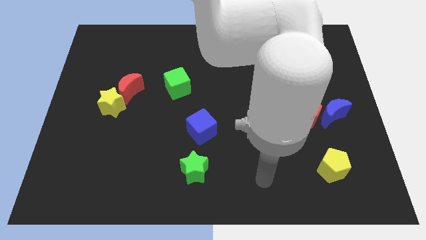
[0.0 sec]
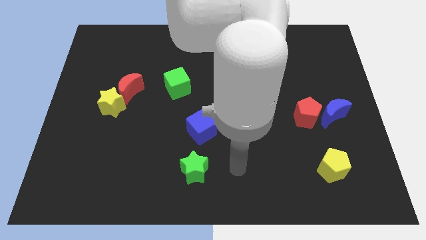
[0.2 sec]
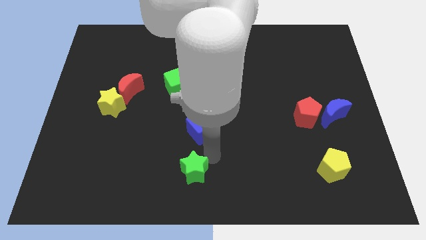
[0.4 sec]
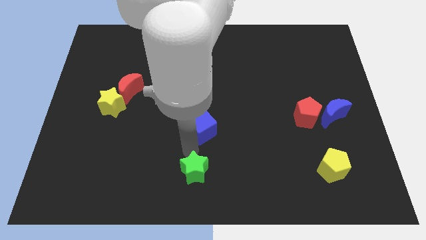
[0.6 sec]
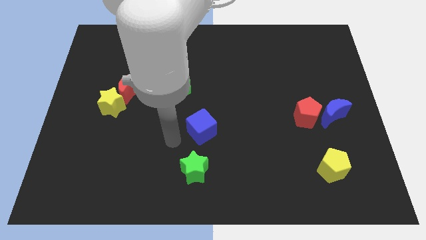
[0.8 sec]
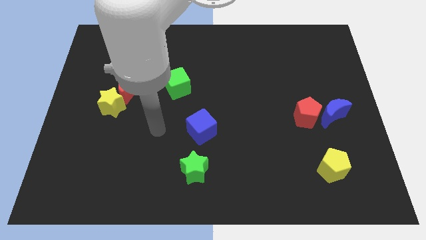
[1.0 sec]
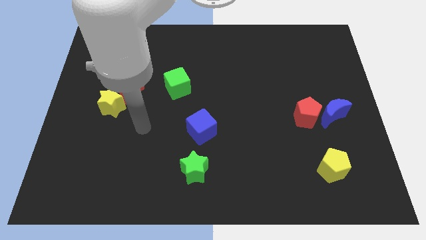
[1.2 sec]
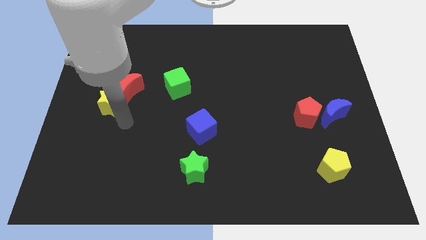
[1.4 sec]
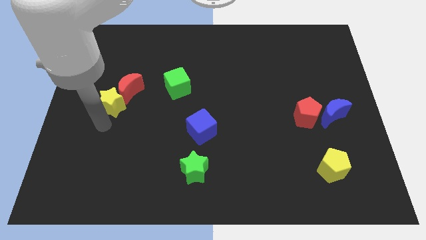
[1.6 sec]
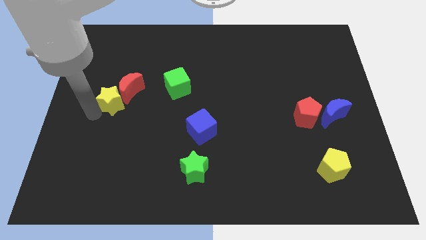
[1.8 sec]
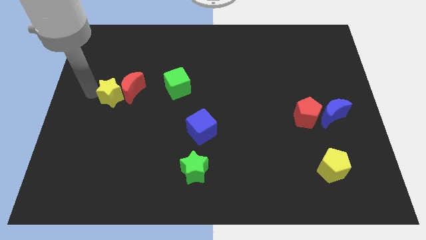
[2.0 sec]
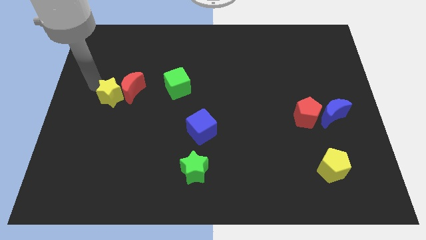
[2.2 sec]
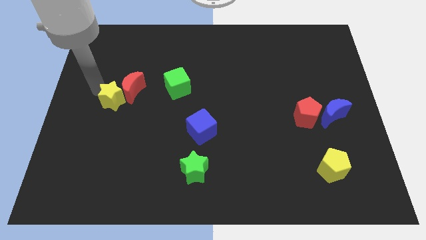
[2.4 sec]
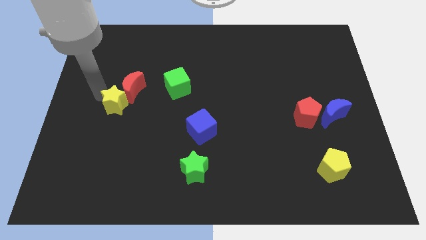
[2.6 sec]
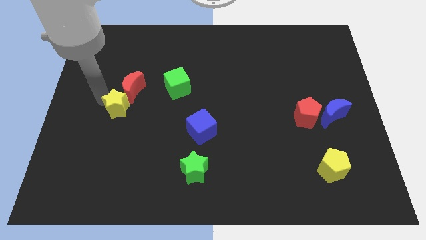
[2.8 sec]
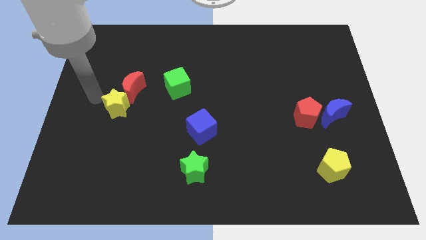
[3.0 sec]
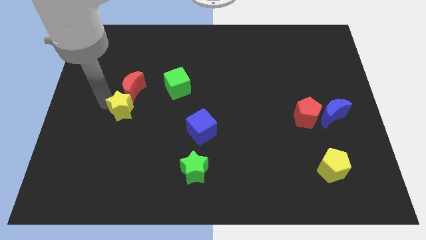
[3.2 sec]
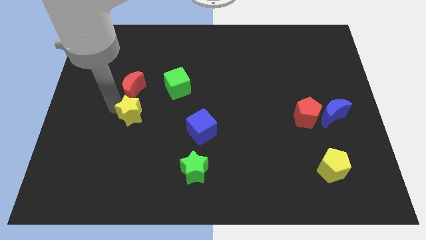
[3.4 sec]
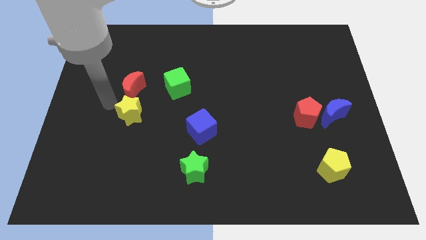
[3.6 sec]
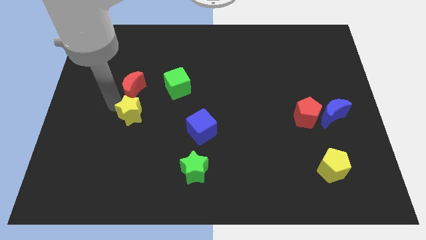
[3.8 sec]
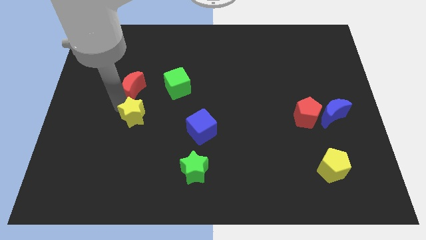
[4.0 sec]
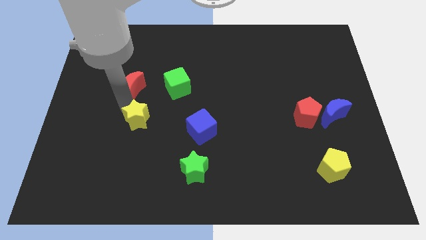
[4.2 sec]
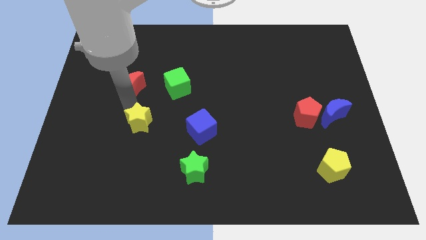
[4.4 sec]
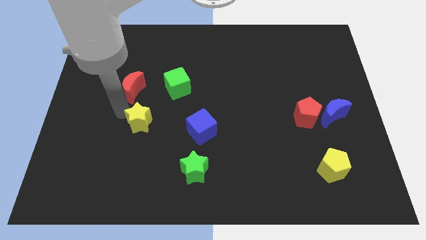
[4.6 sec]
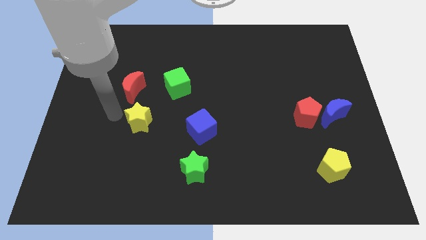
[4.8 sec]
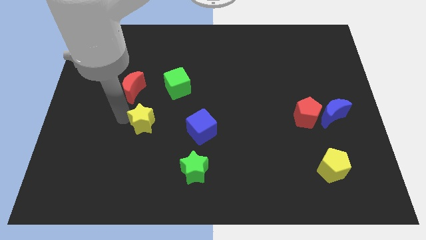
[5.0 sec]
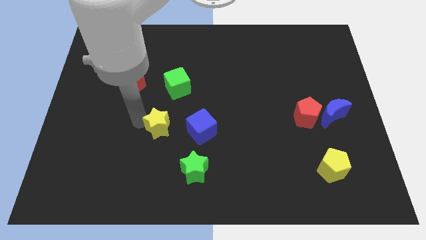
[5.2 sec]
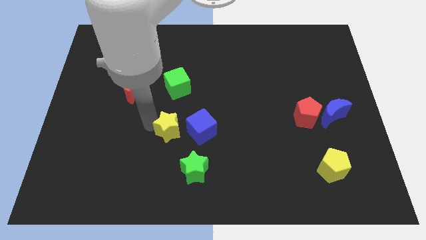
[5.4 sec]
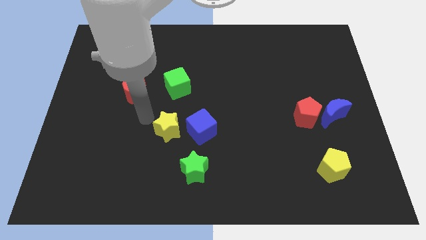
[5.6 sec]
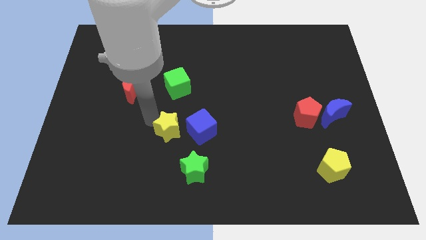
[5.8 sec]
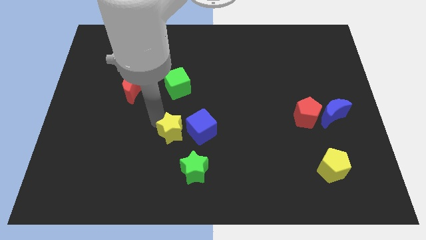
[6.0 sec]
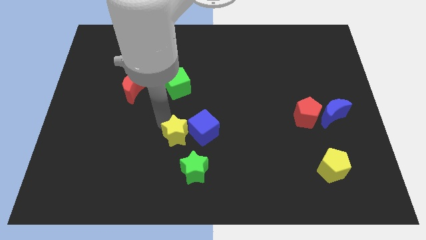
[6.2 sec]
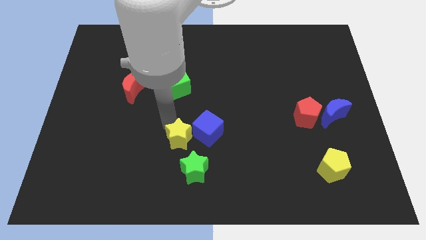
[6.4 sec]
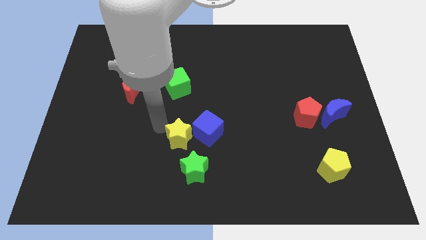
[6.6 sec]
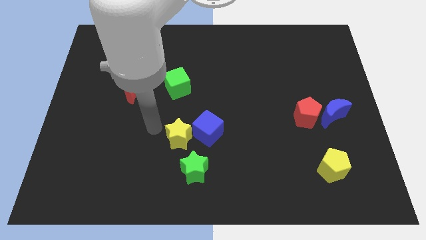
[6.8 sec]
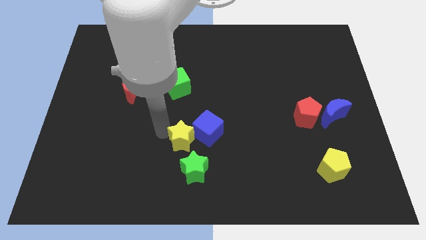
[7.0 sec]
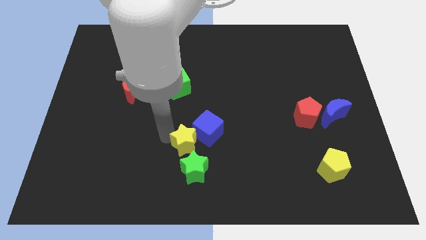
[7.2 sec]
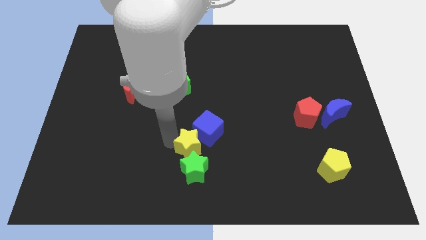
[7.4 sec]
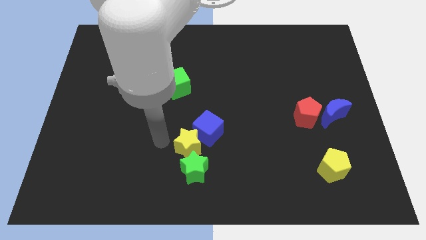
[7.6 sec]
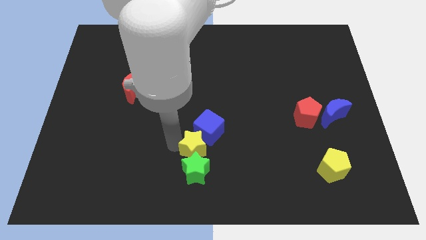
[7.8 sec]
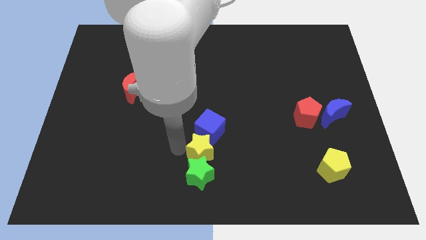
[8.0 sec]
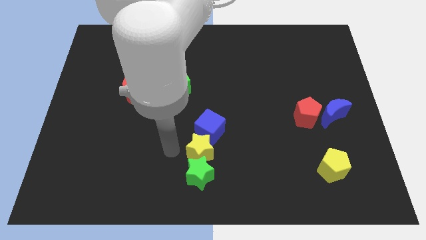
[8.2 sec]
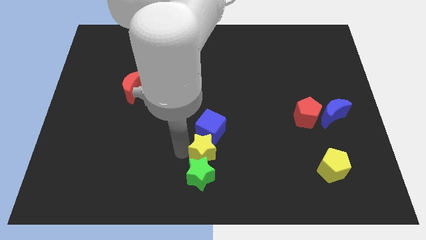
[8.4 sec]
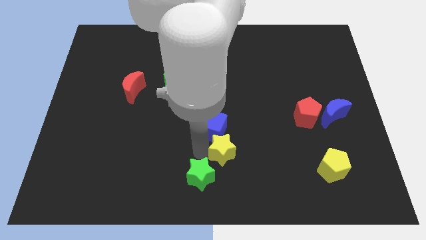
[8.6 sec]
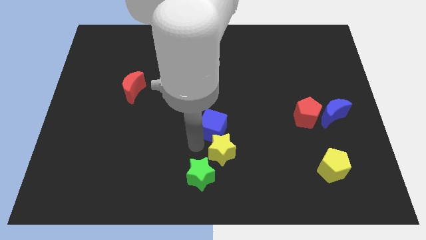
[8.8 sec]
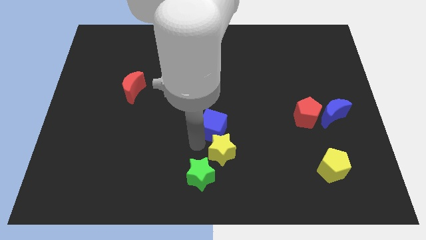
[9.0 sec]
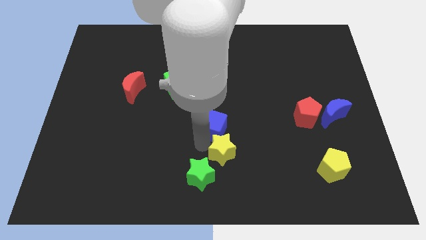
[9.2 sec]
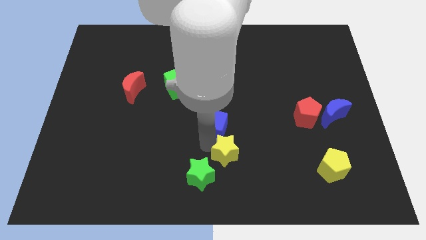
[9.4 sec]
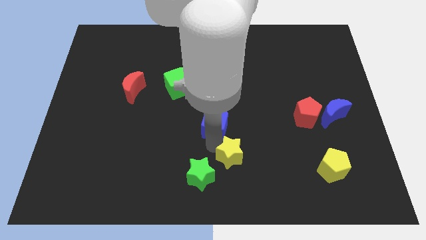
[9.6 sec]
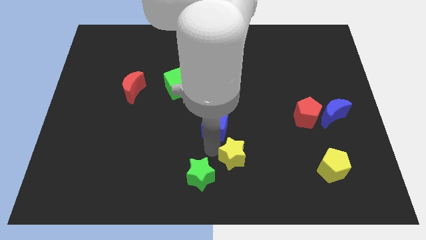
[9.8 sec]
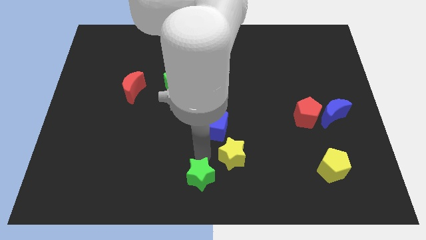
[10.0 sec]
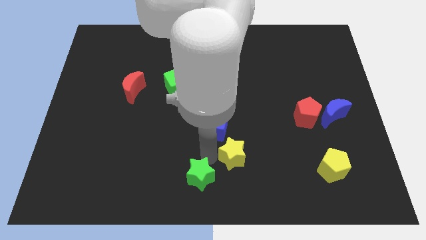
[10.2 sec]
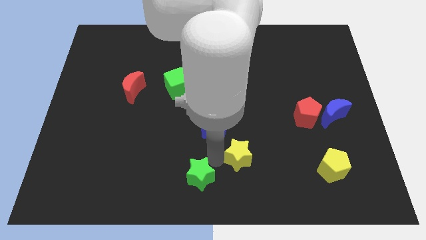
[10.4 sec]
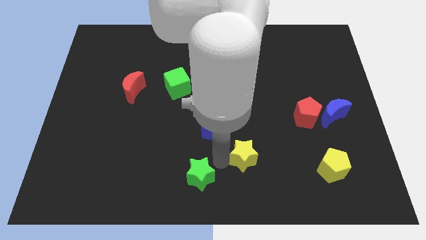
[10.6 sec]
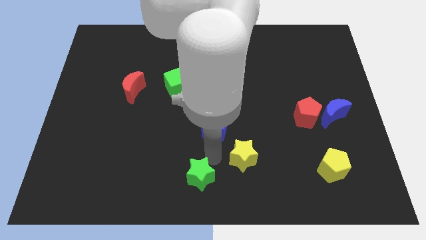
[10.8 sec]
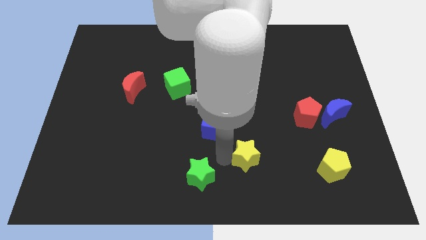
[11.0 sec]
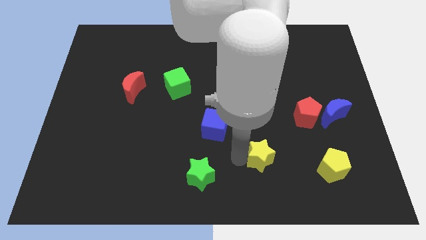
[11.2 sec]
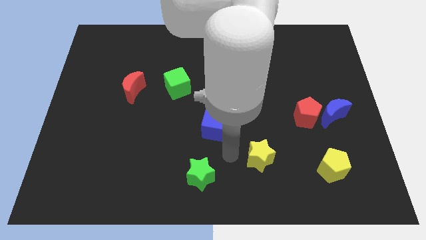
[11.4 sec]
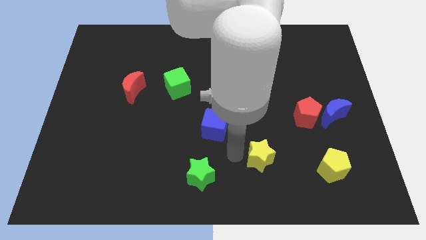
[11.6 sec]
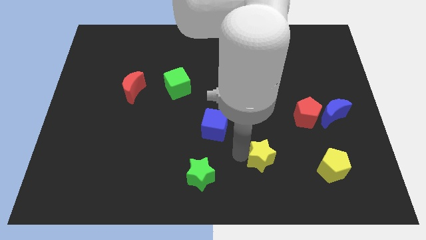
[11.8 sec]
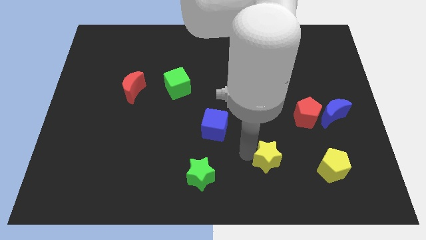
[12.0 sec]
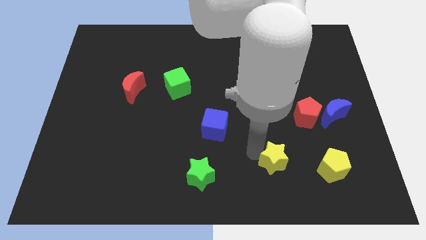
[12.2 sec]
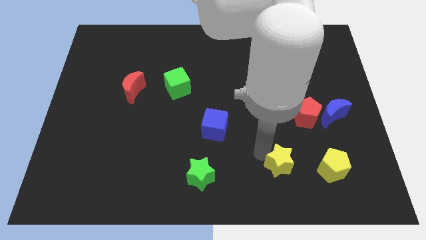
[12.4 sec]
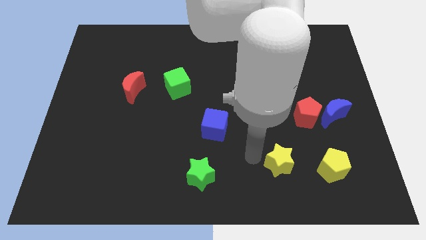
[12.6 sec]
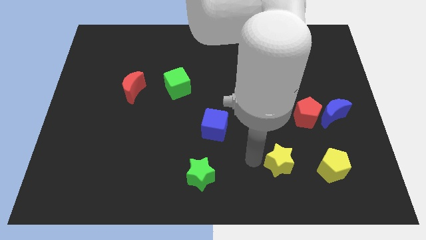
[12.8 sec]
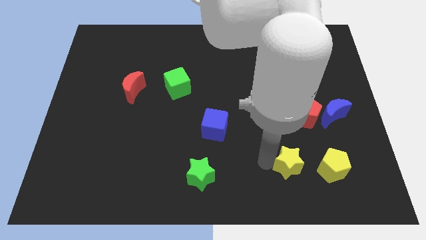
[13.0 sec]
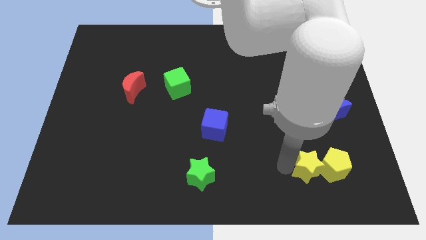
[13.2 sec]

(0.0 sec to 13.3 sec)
move the yellow star towards the yellow pentagon

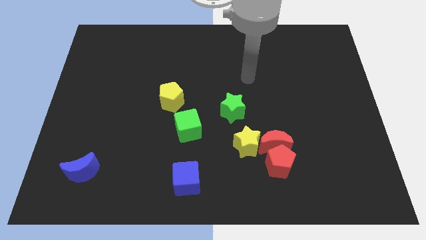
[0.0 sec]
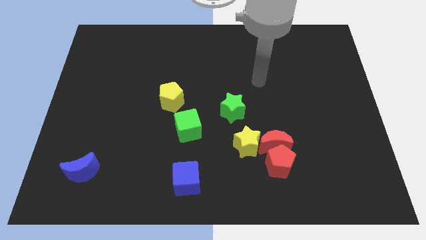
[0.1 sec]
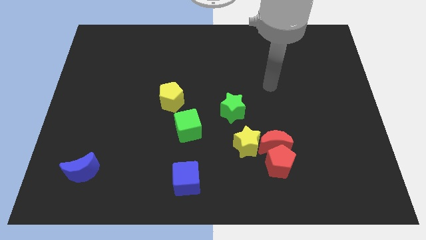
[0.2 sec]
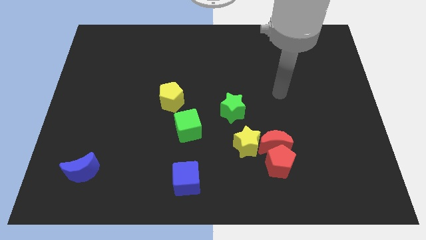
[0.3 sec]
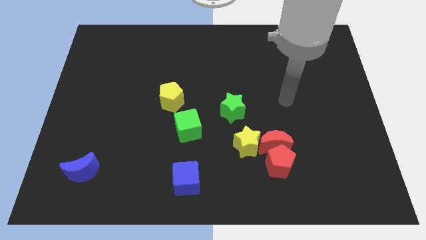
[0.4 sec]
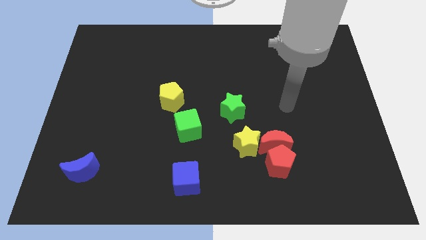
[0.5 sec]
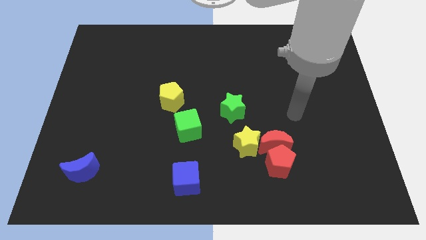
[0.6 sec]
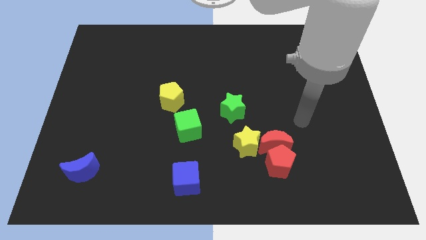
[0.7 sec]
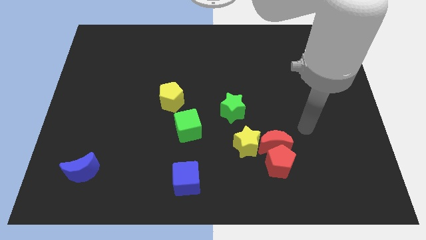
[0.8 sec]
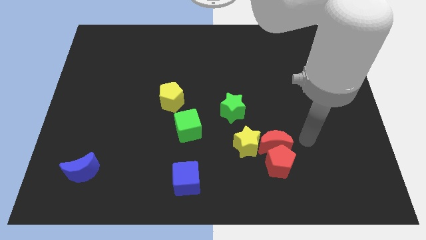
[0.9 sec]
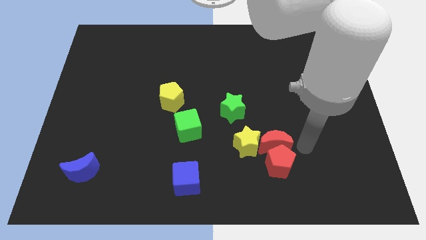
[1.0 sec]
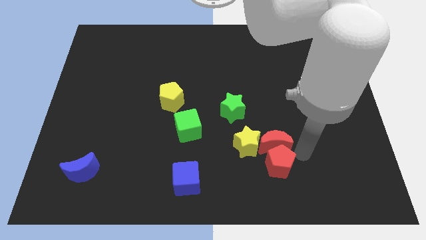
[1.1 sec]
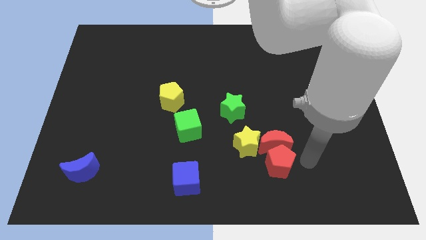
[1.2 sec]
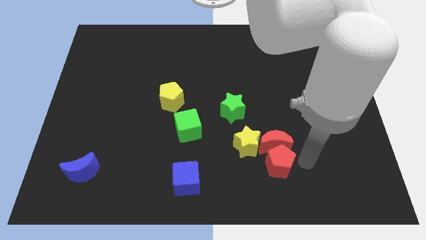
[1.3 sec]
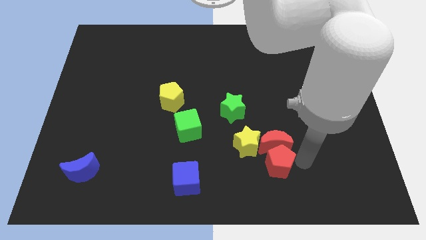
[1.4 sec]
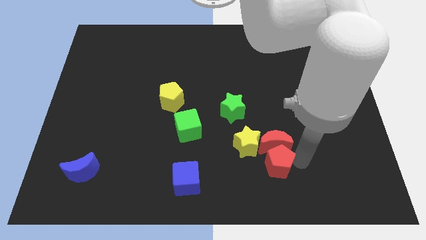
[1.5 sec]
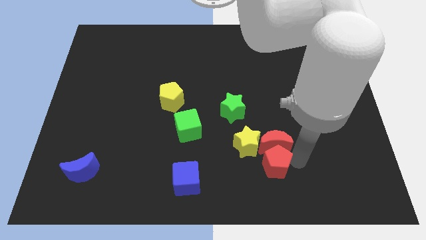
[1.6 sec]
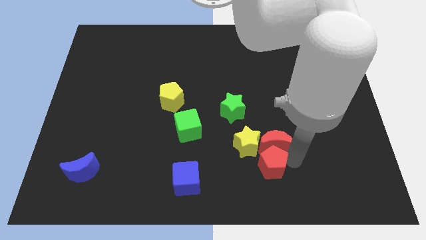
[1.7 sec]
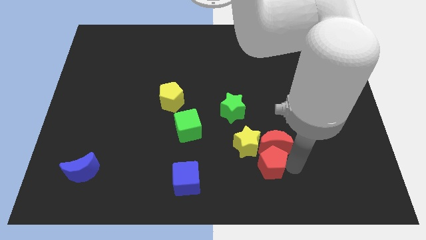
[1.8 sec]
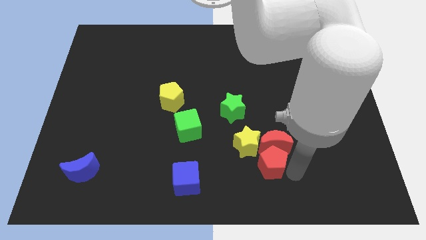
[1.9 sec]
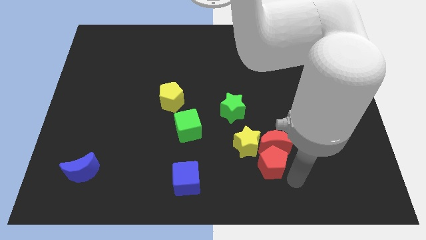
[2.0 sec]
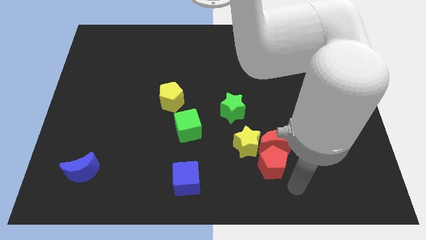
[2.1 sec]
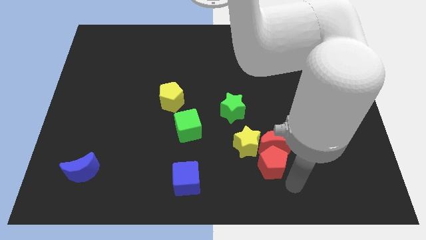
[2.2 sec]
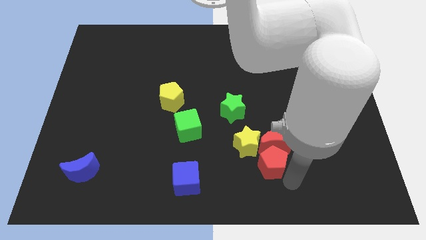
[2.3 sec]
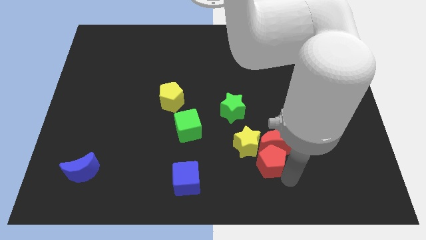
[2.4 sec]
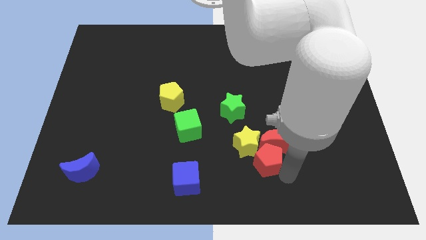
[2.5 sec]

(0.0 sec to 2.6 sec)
slide the red pentagon towards the yellow star
